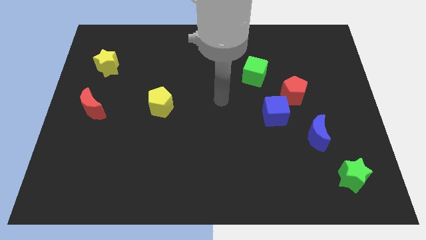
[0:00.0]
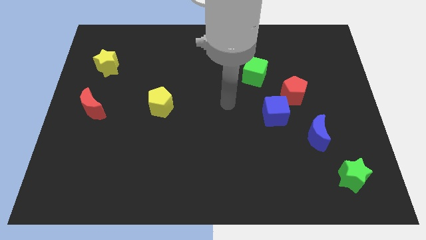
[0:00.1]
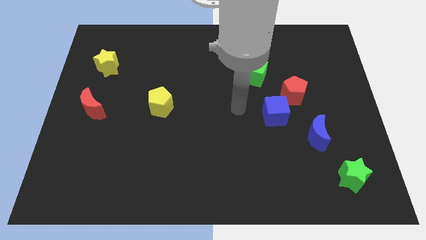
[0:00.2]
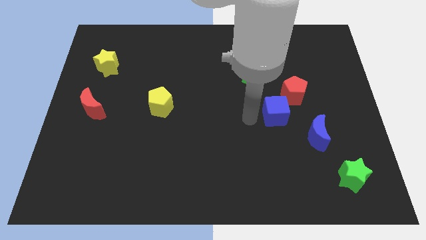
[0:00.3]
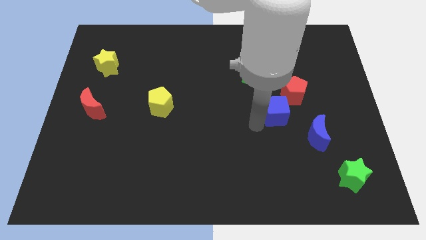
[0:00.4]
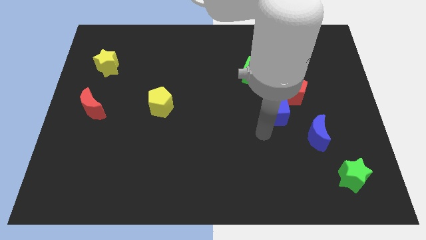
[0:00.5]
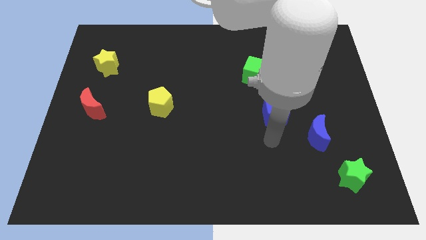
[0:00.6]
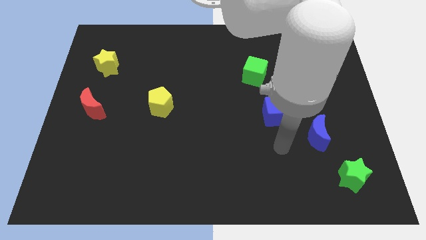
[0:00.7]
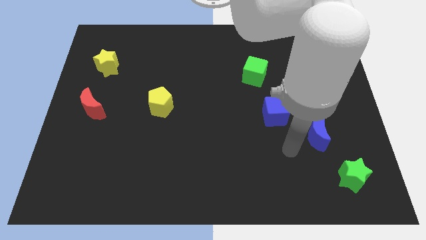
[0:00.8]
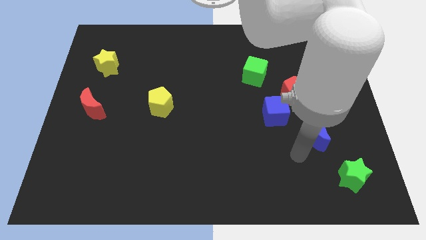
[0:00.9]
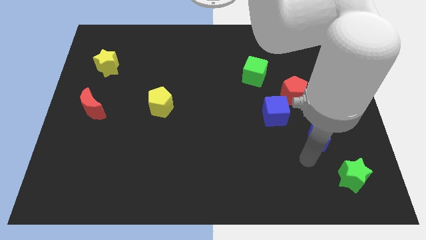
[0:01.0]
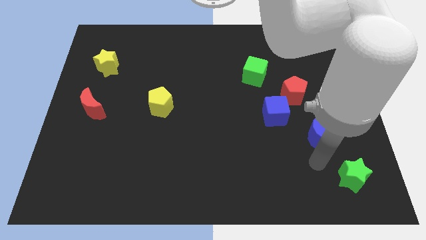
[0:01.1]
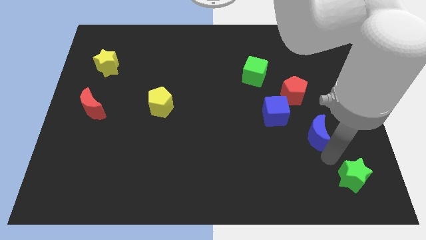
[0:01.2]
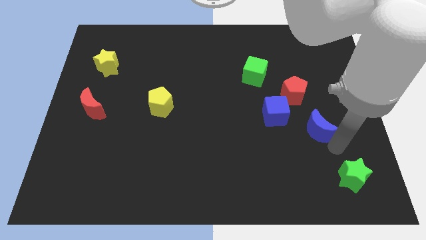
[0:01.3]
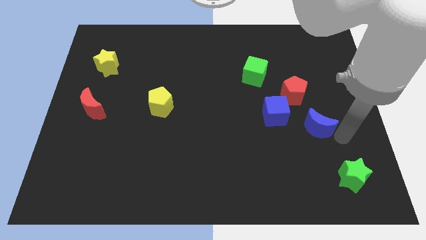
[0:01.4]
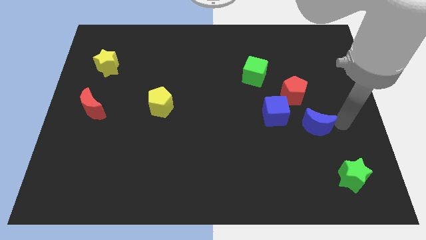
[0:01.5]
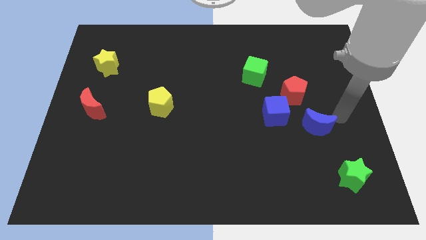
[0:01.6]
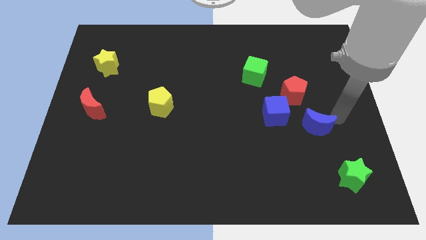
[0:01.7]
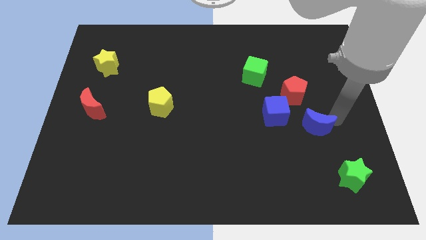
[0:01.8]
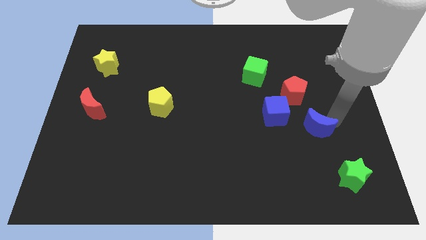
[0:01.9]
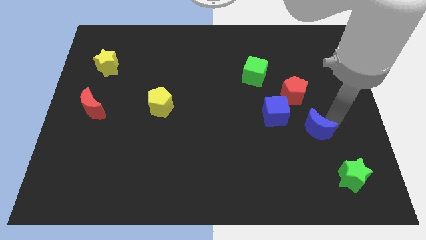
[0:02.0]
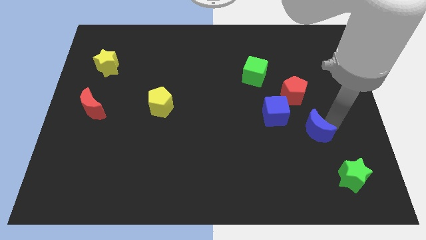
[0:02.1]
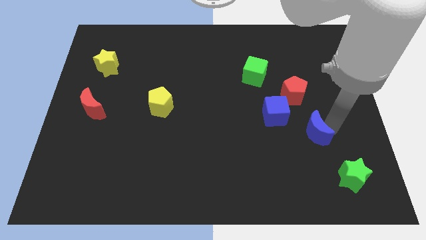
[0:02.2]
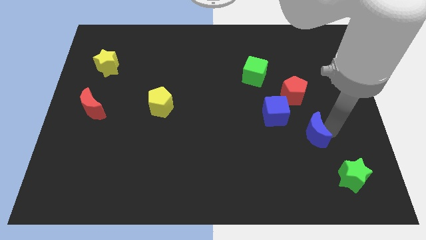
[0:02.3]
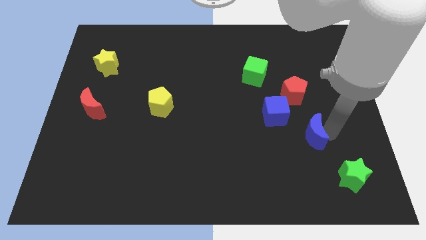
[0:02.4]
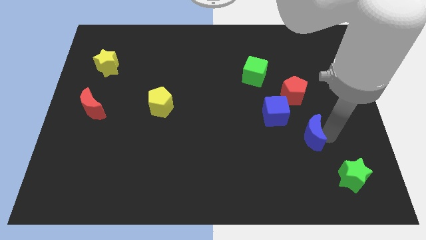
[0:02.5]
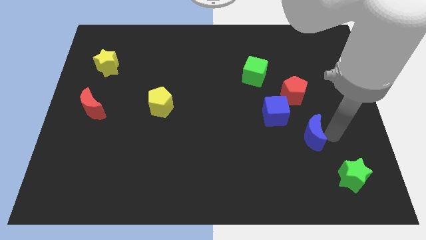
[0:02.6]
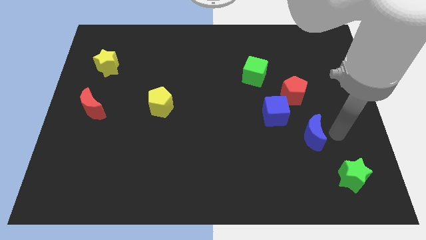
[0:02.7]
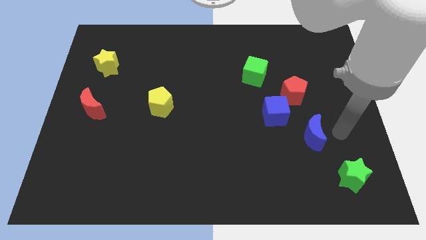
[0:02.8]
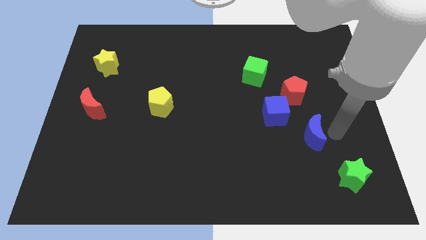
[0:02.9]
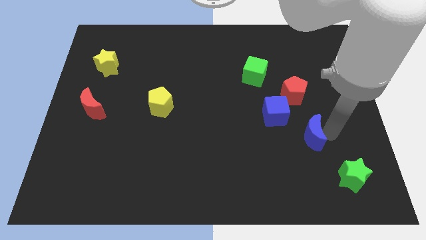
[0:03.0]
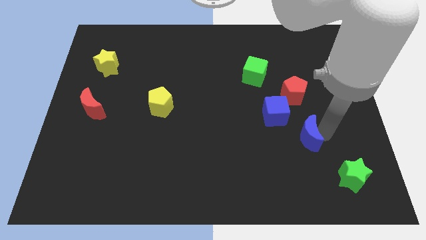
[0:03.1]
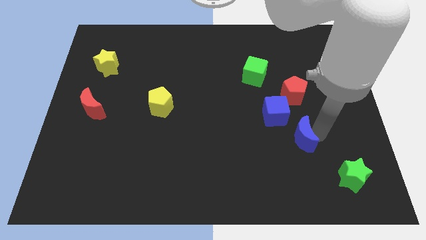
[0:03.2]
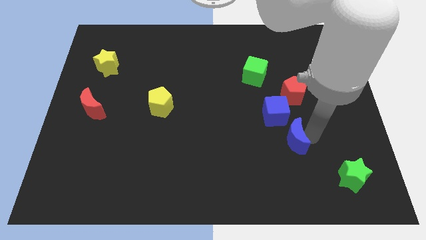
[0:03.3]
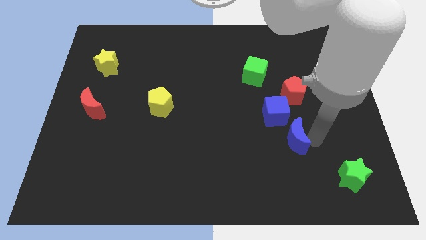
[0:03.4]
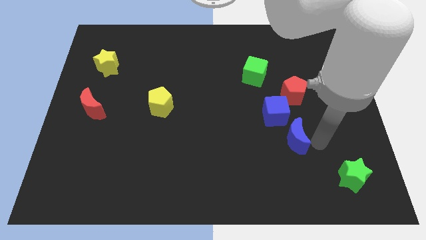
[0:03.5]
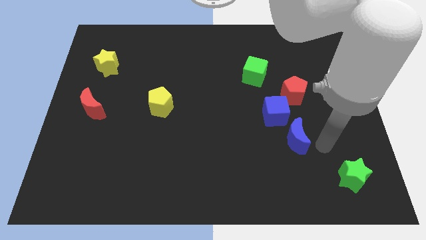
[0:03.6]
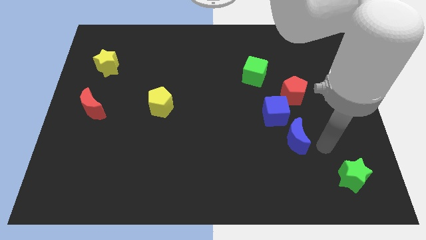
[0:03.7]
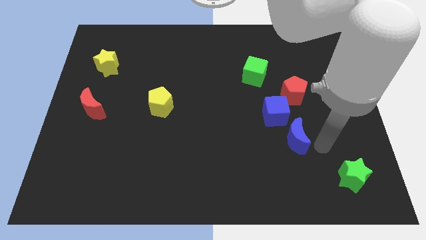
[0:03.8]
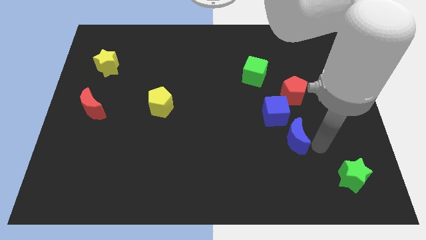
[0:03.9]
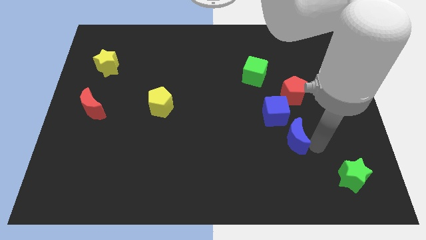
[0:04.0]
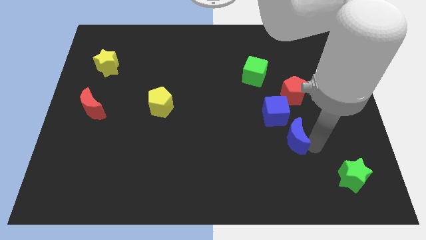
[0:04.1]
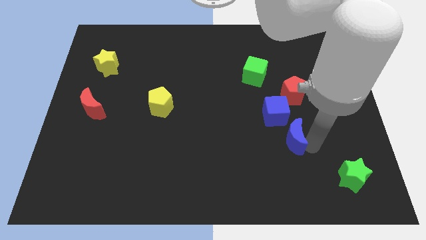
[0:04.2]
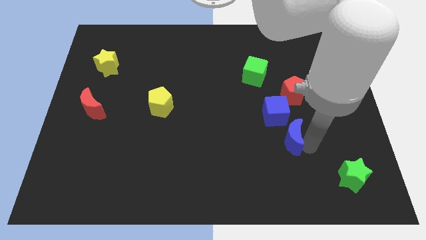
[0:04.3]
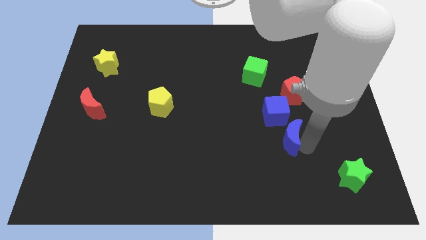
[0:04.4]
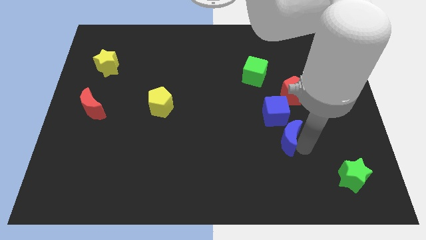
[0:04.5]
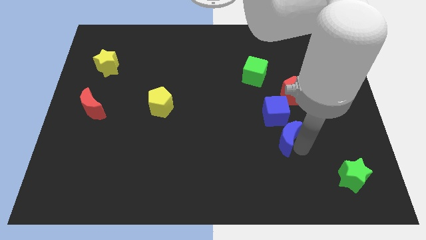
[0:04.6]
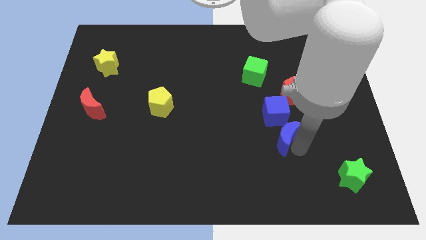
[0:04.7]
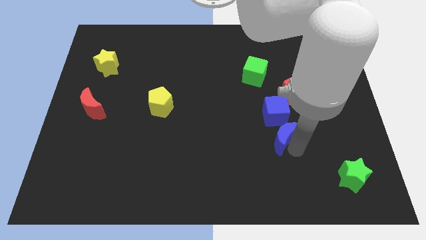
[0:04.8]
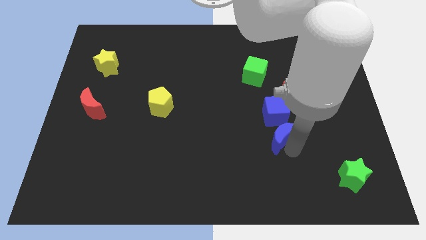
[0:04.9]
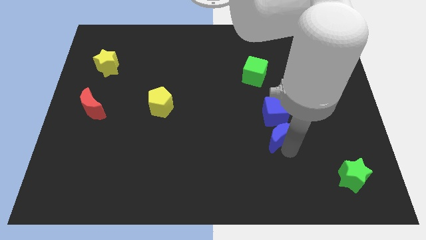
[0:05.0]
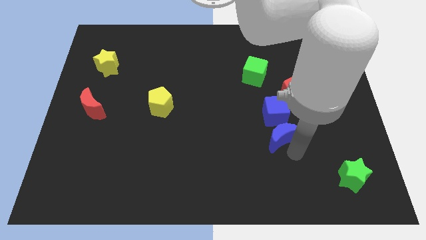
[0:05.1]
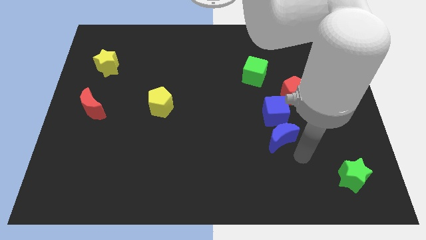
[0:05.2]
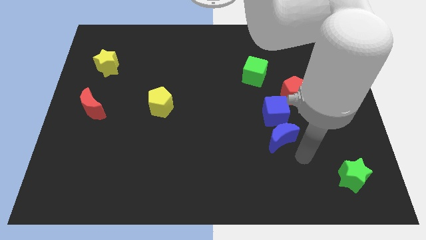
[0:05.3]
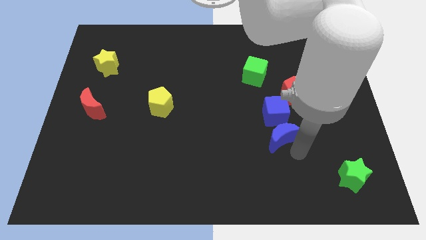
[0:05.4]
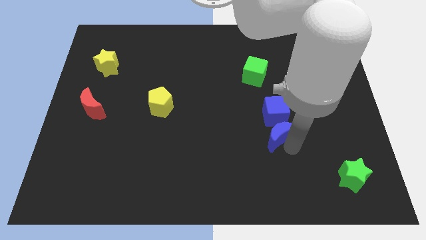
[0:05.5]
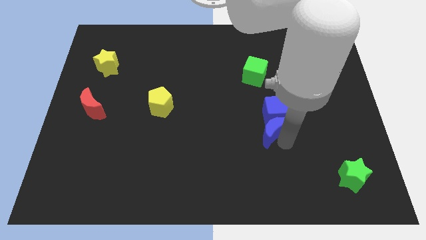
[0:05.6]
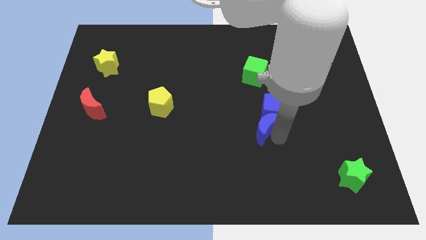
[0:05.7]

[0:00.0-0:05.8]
slide the blue moon diagonally upwards and to the left a bit

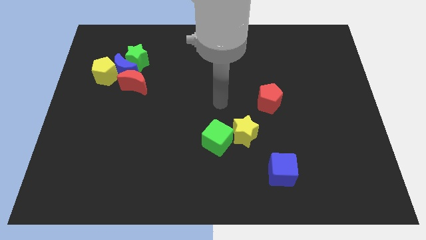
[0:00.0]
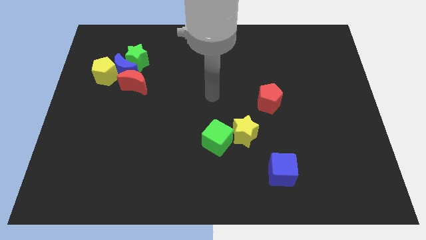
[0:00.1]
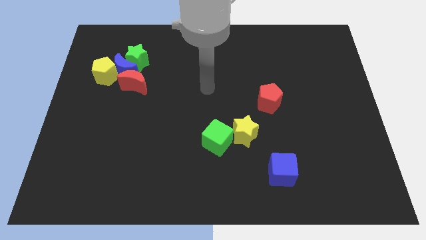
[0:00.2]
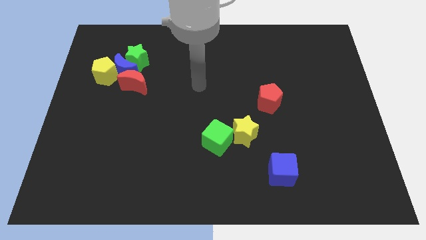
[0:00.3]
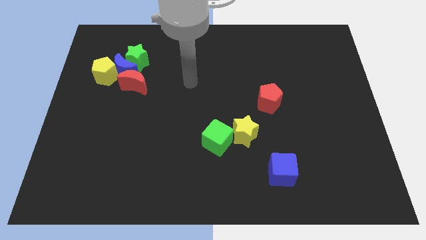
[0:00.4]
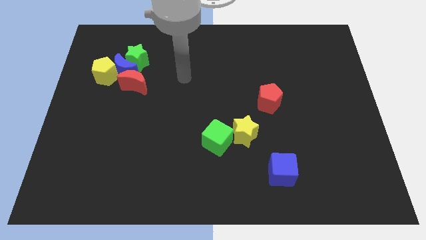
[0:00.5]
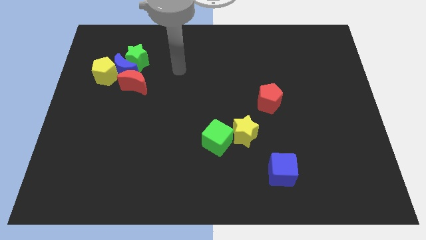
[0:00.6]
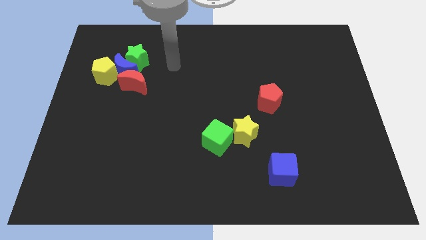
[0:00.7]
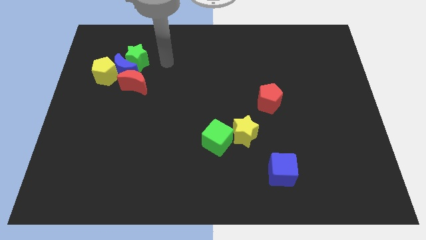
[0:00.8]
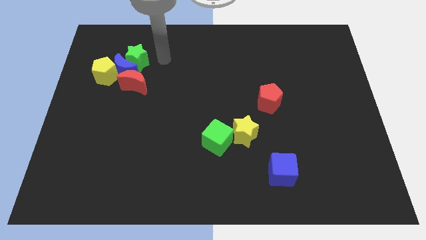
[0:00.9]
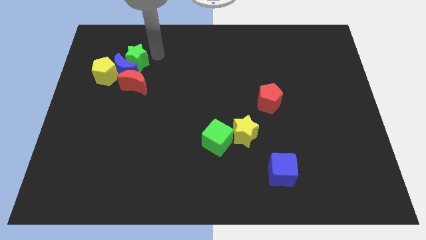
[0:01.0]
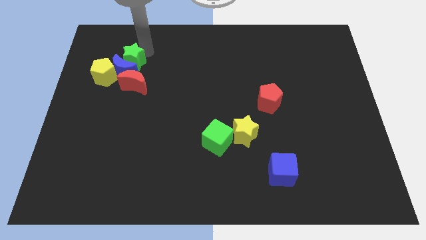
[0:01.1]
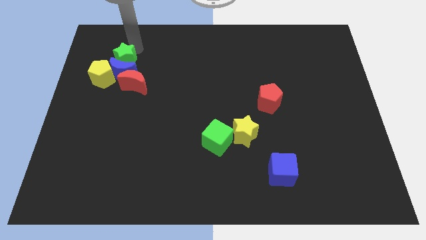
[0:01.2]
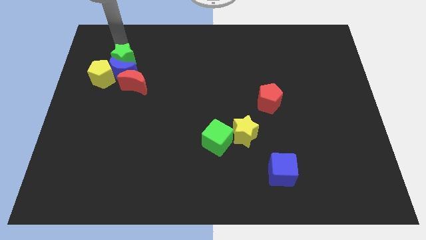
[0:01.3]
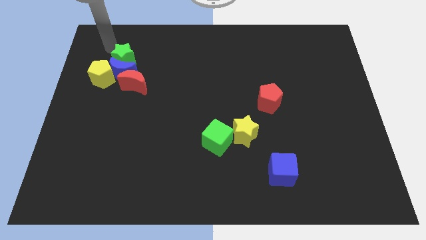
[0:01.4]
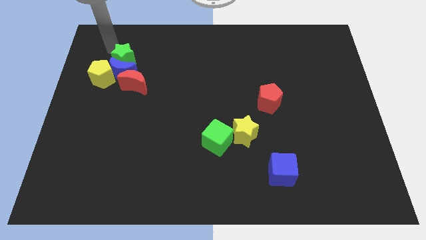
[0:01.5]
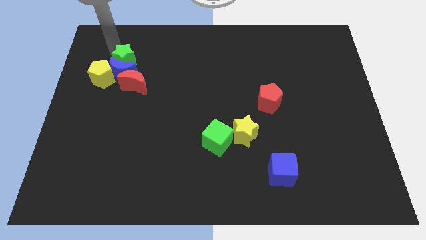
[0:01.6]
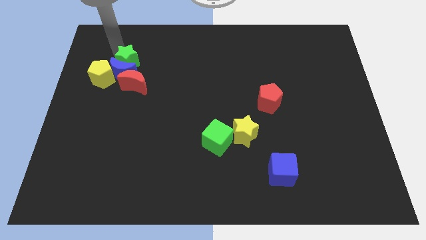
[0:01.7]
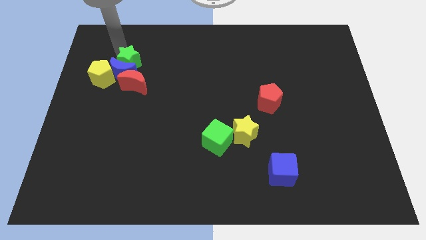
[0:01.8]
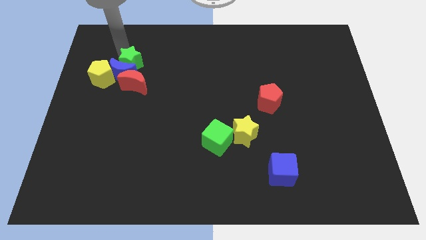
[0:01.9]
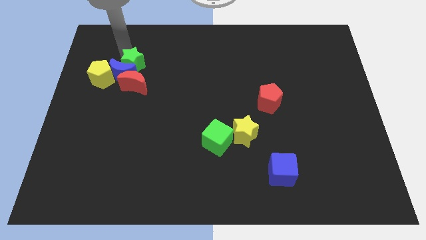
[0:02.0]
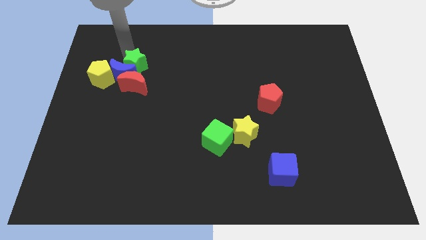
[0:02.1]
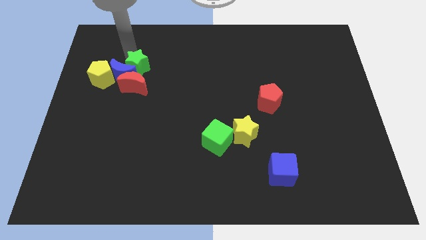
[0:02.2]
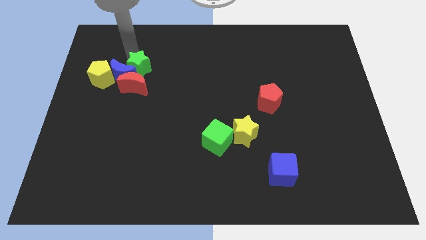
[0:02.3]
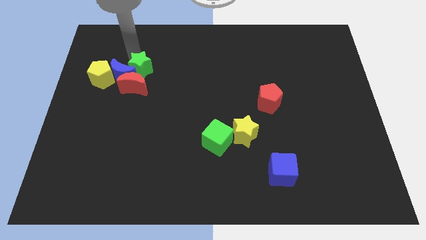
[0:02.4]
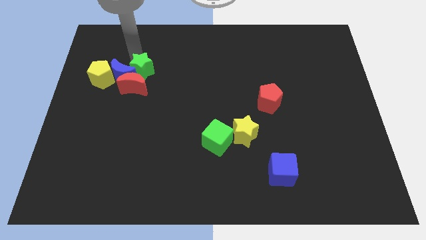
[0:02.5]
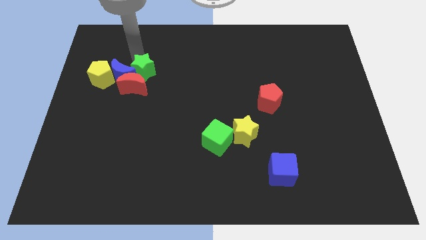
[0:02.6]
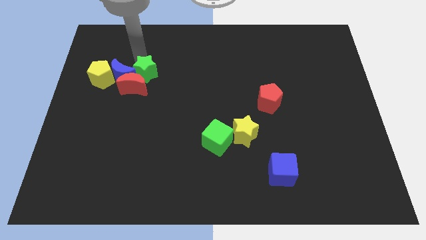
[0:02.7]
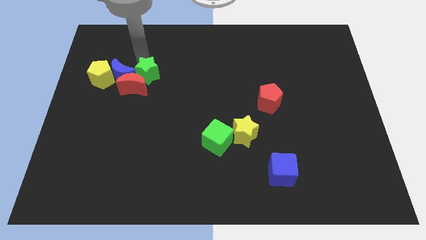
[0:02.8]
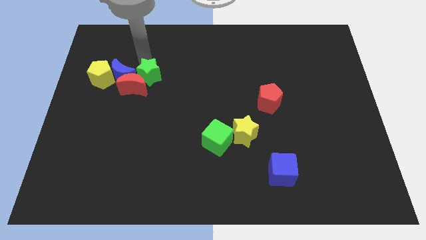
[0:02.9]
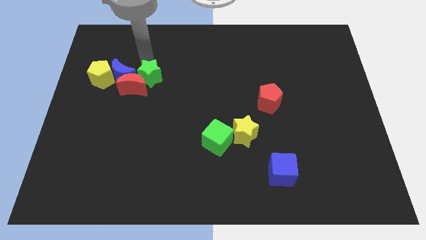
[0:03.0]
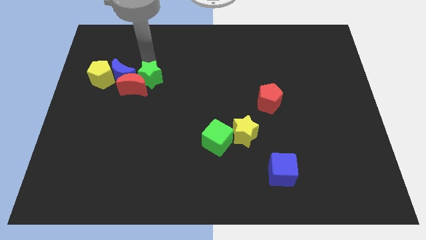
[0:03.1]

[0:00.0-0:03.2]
slide the green star a little bit down and then to the right
